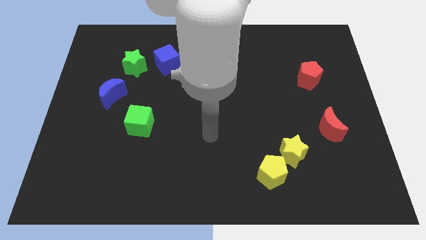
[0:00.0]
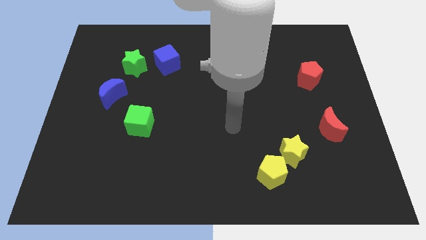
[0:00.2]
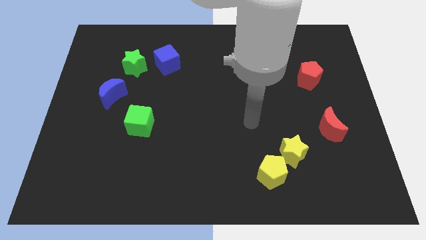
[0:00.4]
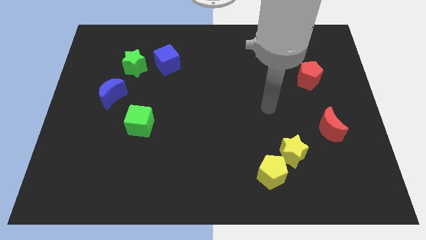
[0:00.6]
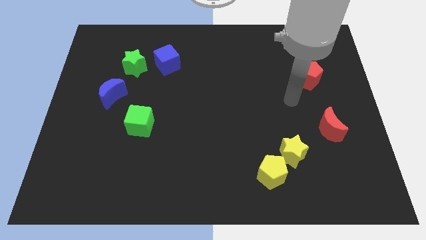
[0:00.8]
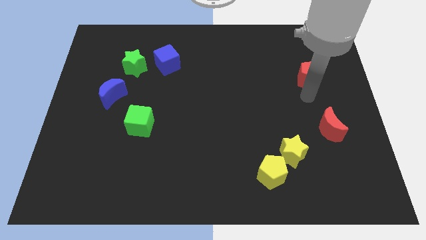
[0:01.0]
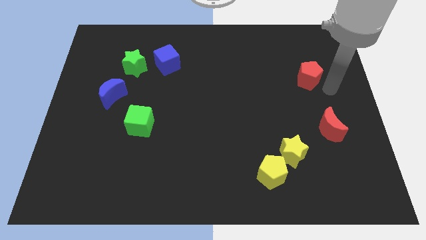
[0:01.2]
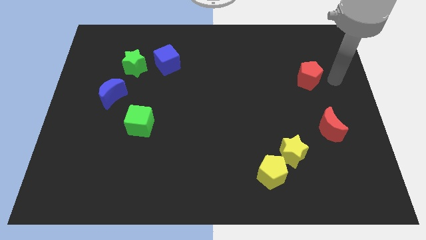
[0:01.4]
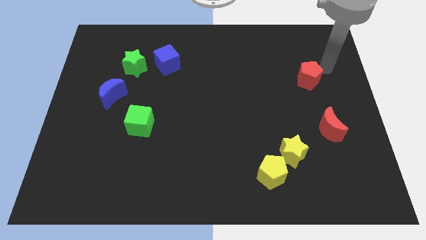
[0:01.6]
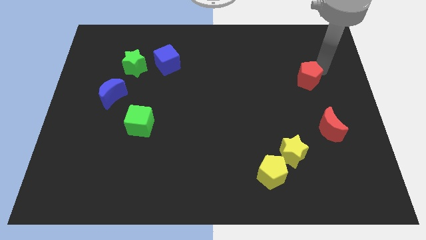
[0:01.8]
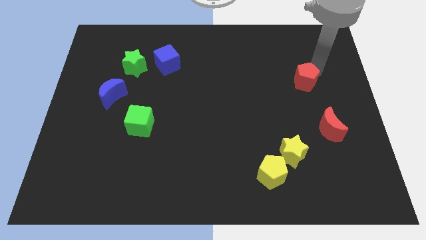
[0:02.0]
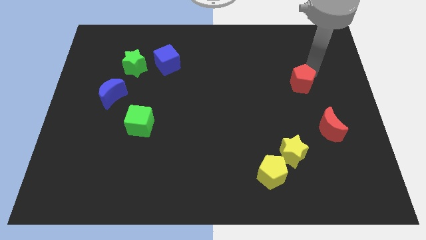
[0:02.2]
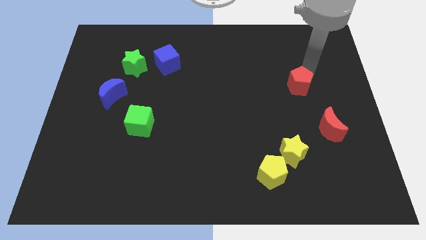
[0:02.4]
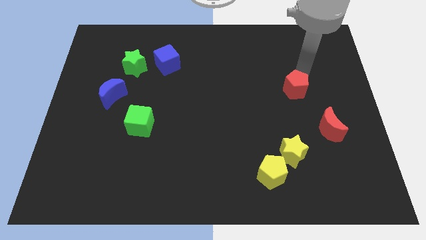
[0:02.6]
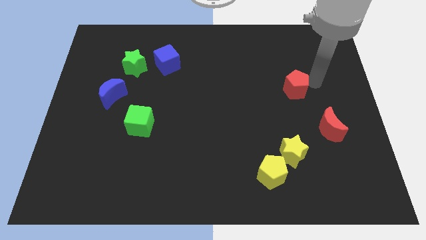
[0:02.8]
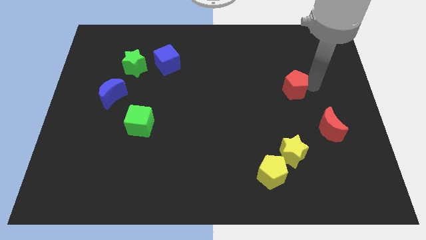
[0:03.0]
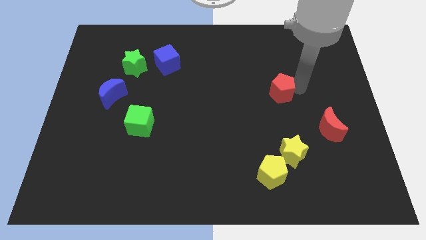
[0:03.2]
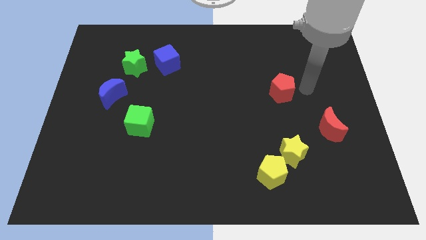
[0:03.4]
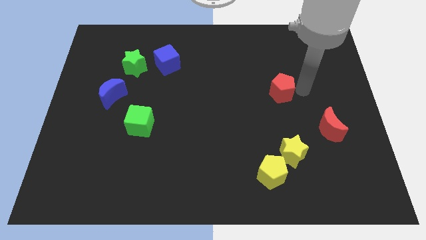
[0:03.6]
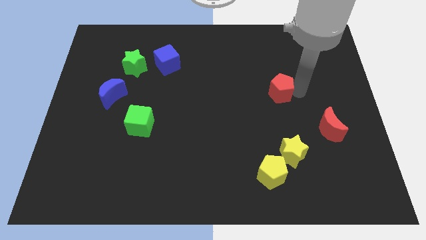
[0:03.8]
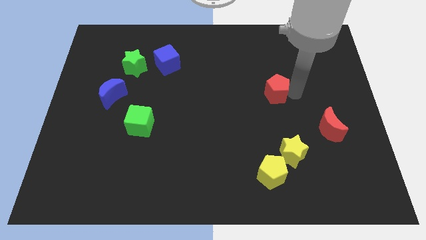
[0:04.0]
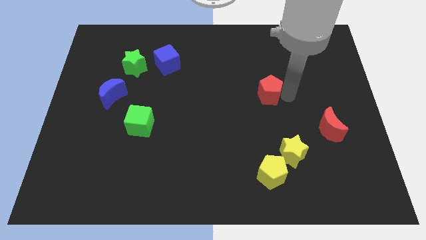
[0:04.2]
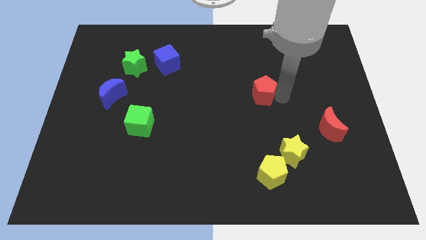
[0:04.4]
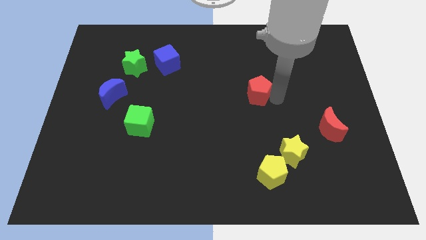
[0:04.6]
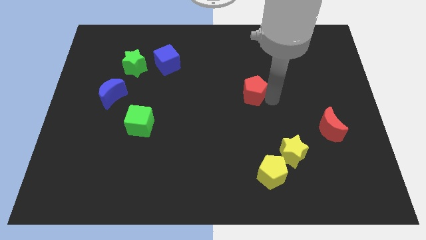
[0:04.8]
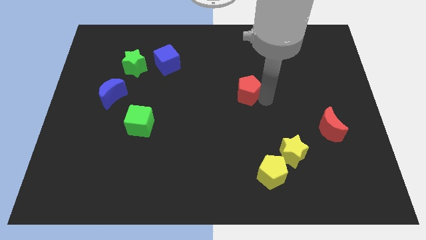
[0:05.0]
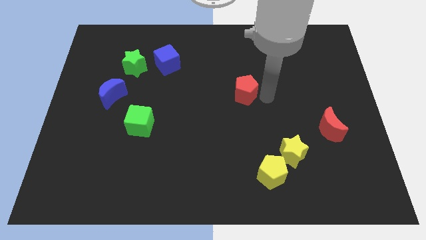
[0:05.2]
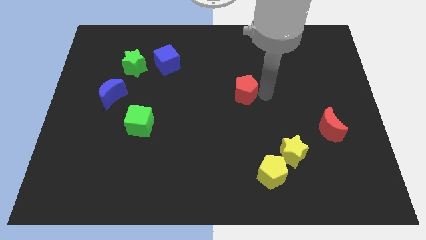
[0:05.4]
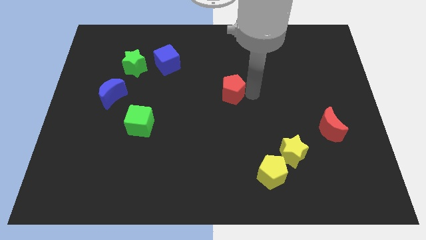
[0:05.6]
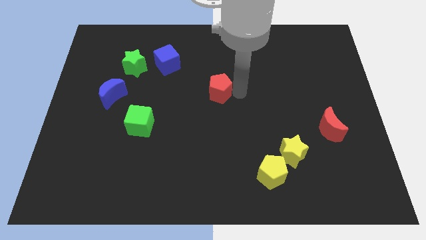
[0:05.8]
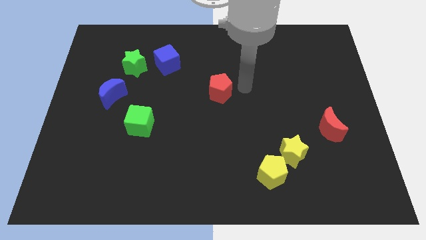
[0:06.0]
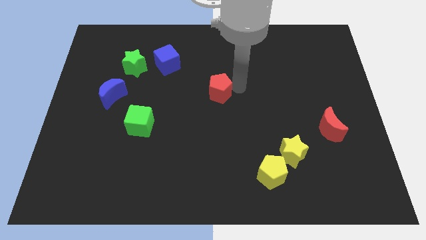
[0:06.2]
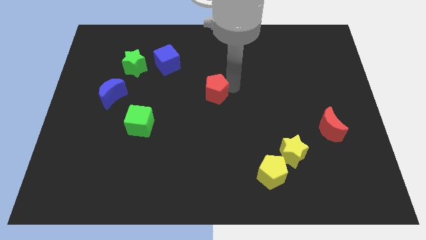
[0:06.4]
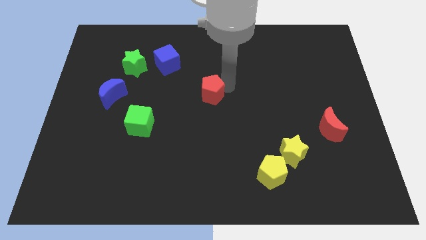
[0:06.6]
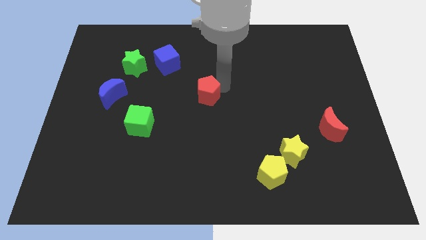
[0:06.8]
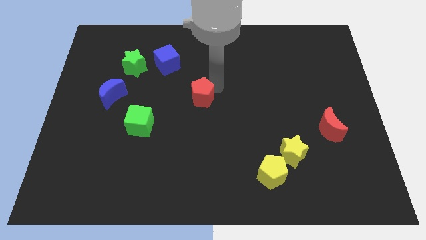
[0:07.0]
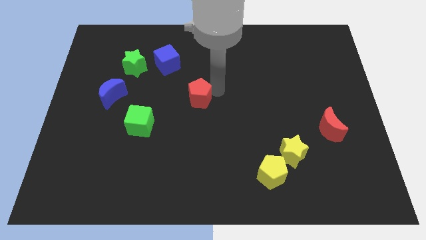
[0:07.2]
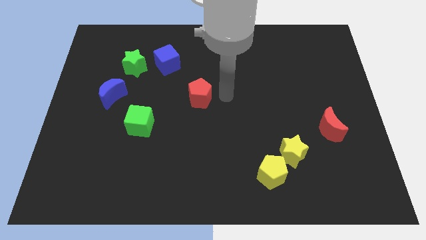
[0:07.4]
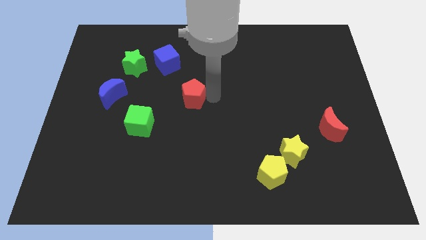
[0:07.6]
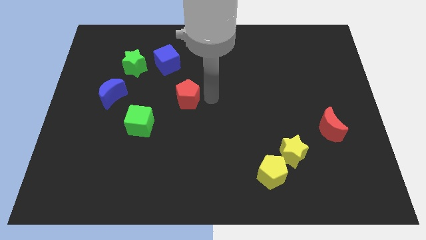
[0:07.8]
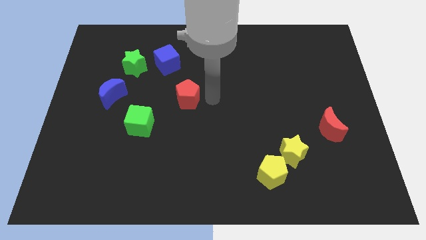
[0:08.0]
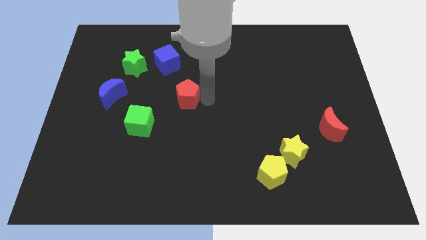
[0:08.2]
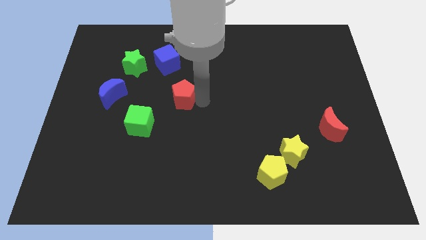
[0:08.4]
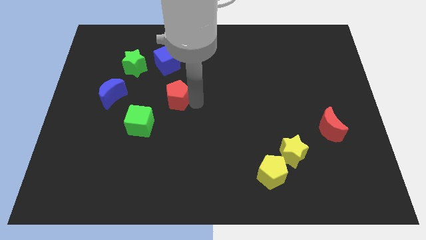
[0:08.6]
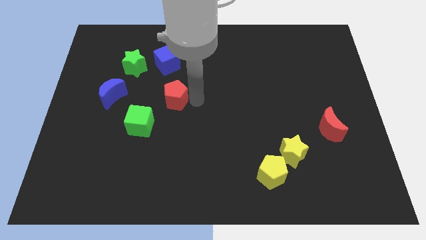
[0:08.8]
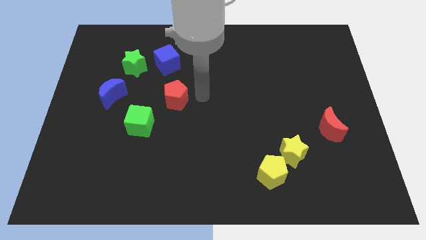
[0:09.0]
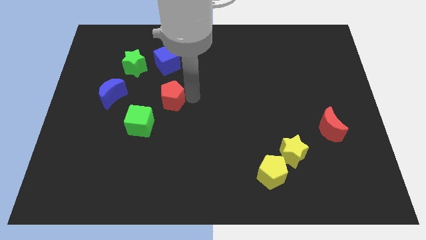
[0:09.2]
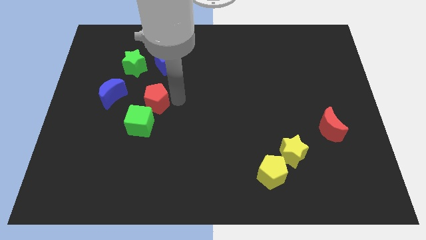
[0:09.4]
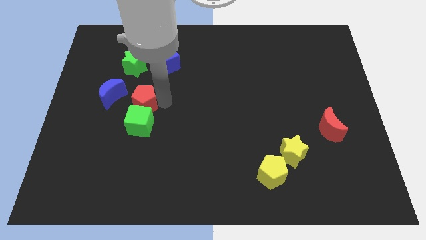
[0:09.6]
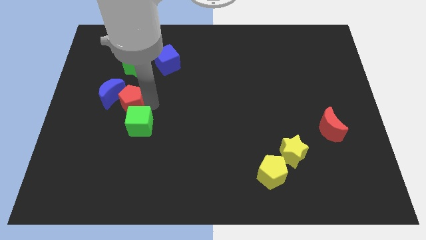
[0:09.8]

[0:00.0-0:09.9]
move the red pentagon next to the blue moon

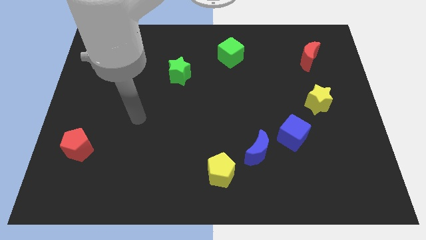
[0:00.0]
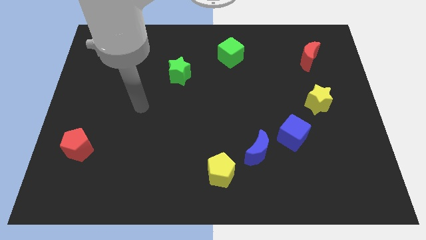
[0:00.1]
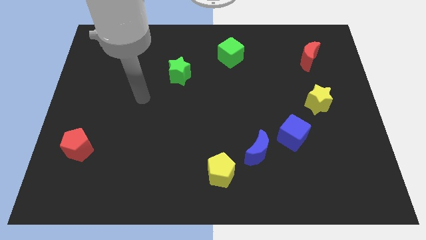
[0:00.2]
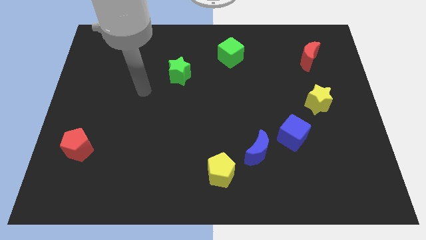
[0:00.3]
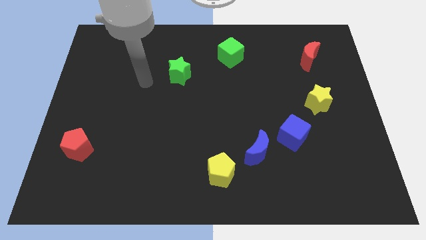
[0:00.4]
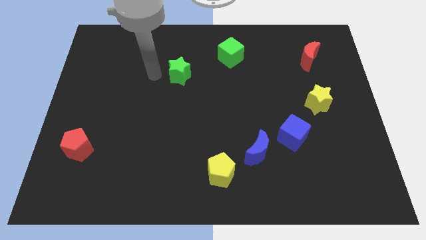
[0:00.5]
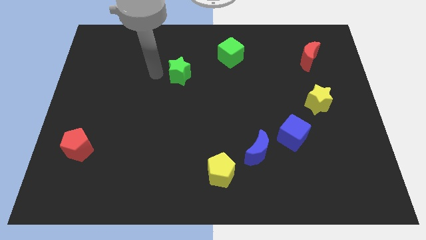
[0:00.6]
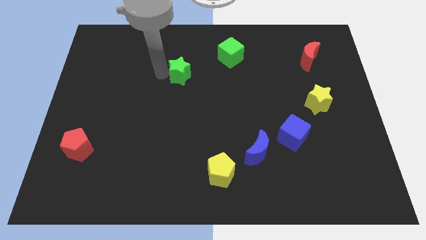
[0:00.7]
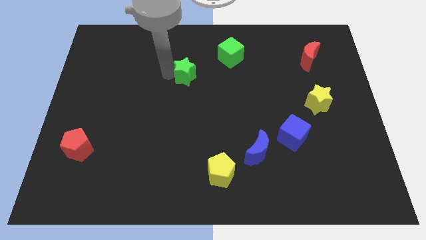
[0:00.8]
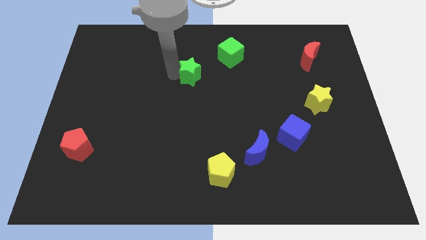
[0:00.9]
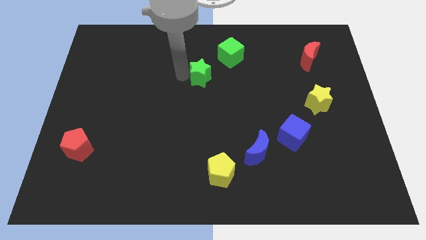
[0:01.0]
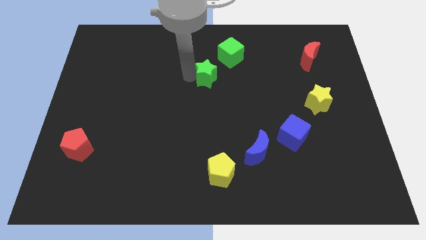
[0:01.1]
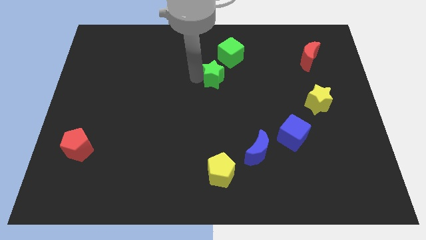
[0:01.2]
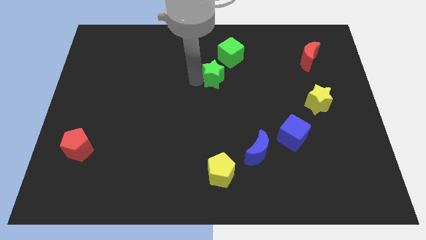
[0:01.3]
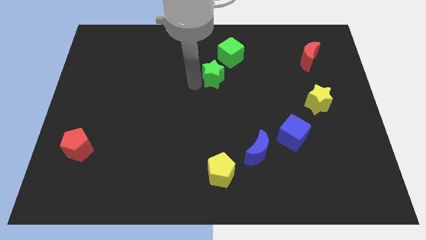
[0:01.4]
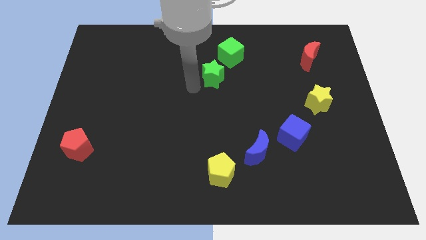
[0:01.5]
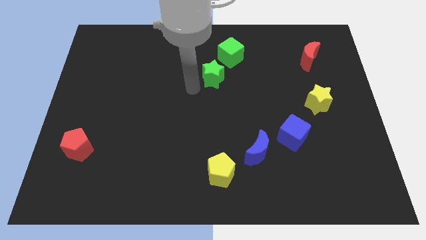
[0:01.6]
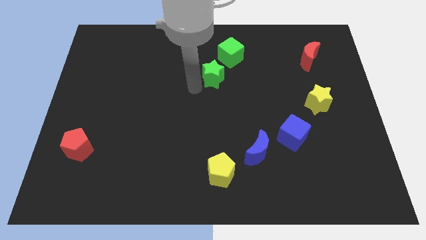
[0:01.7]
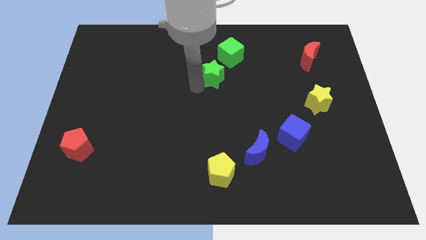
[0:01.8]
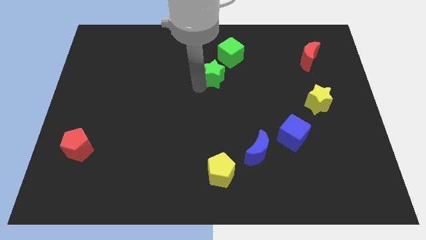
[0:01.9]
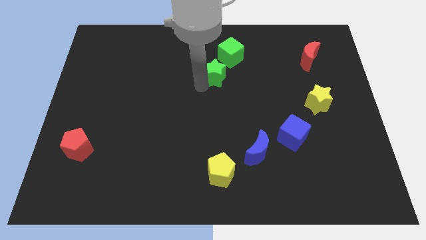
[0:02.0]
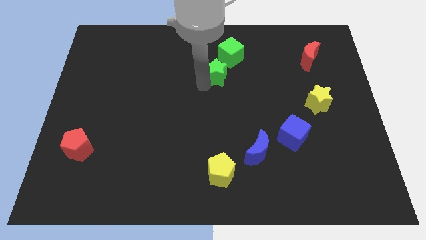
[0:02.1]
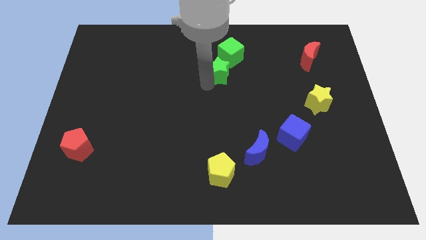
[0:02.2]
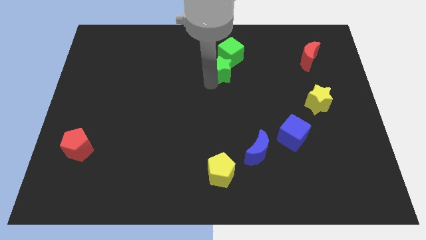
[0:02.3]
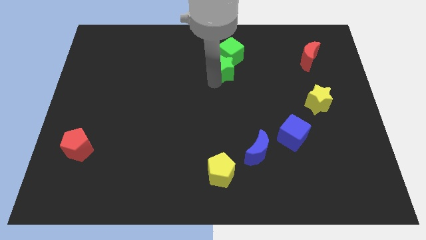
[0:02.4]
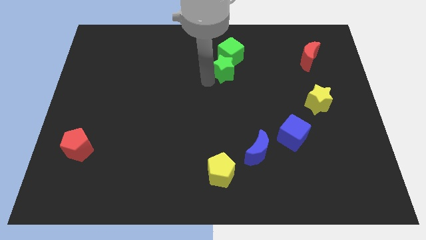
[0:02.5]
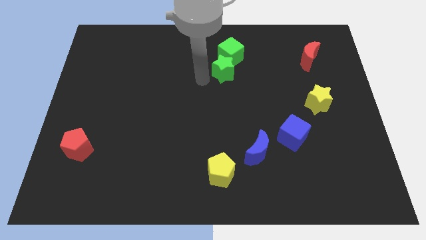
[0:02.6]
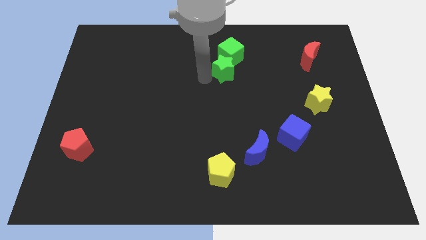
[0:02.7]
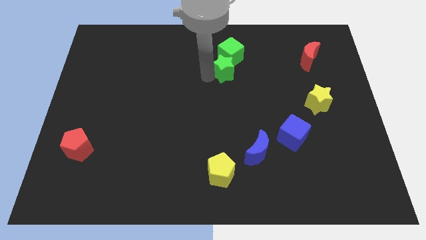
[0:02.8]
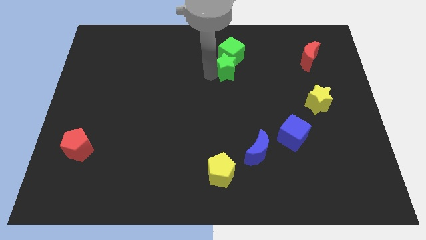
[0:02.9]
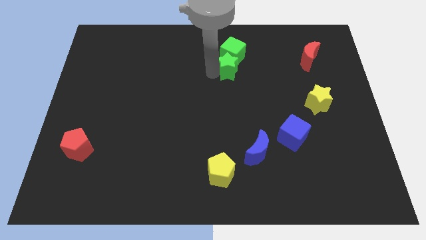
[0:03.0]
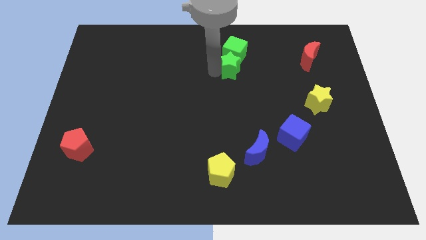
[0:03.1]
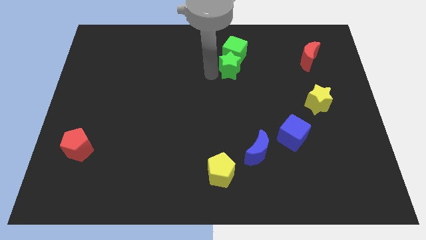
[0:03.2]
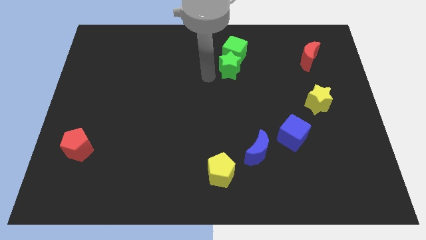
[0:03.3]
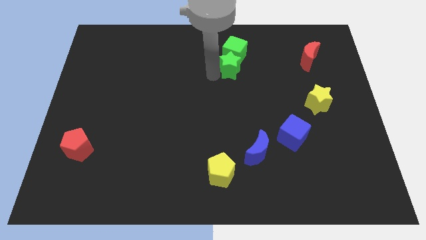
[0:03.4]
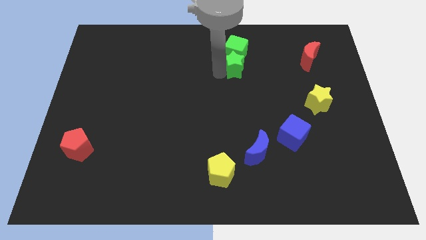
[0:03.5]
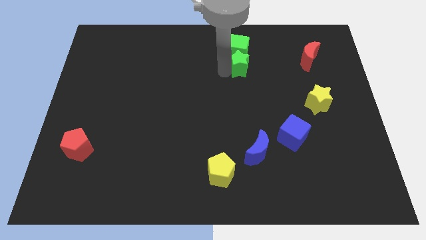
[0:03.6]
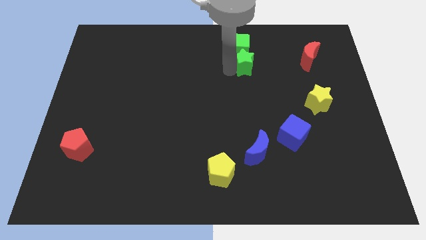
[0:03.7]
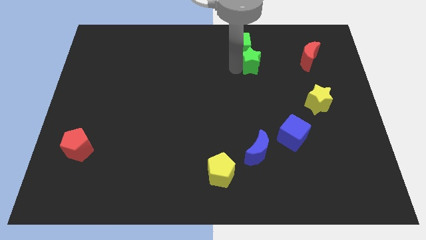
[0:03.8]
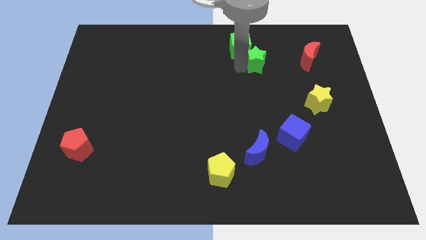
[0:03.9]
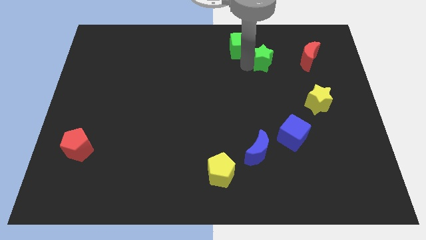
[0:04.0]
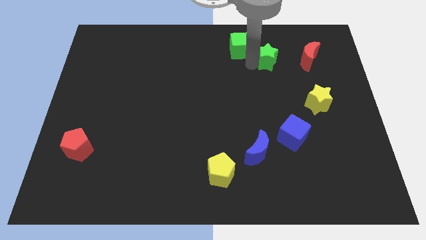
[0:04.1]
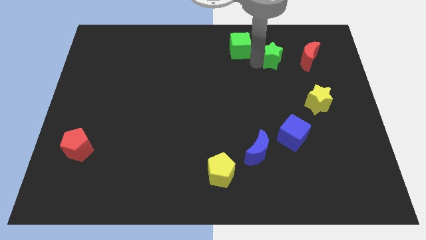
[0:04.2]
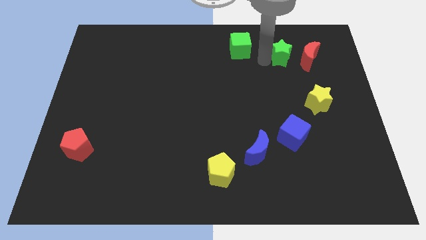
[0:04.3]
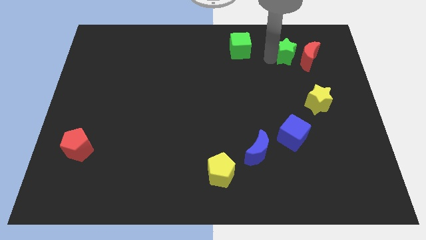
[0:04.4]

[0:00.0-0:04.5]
slide the green star close to the red moon
